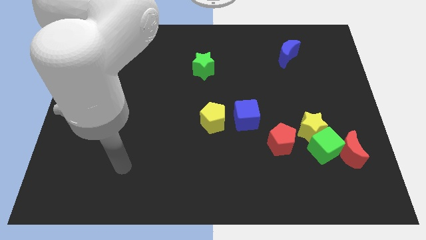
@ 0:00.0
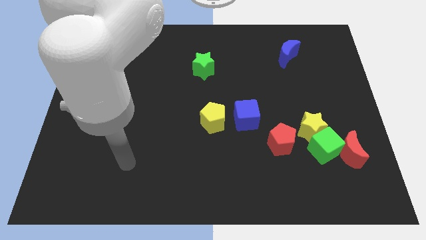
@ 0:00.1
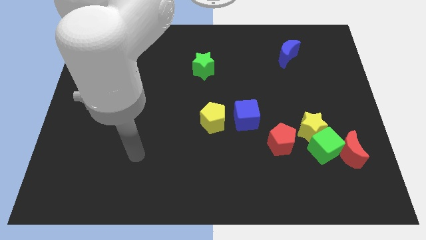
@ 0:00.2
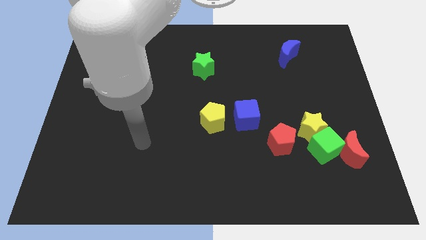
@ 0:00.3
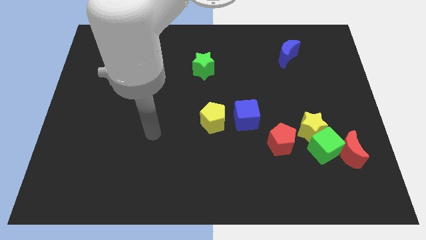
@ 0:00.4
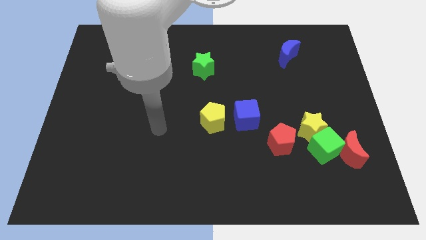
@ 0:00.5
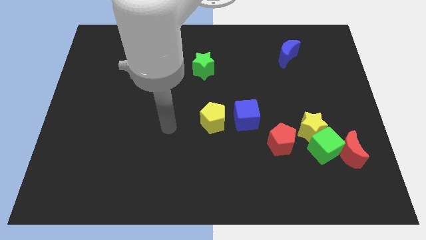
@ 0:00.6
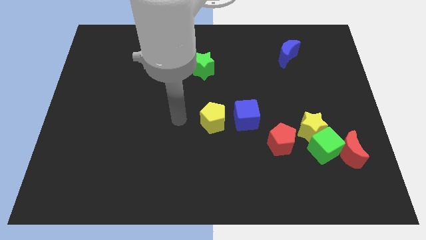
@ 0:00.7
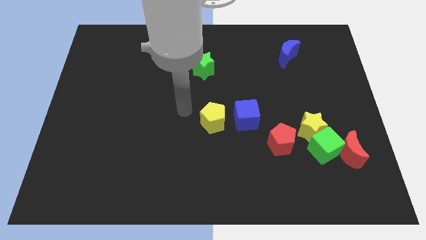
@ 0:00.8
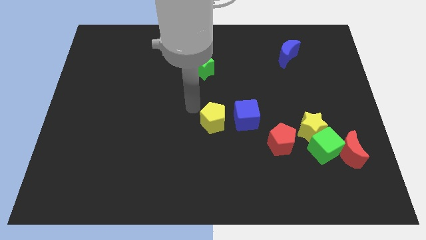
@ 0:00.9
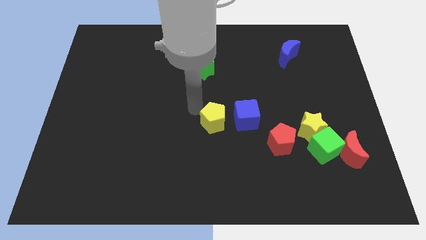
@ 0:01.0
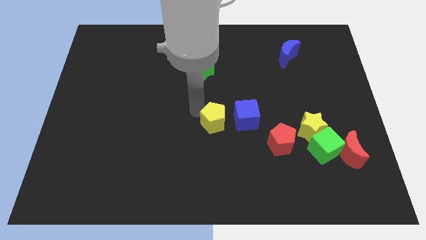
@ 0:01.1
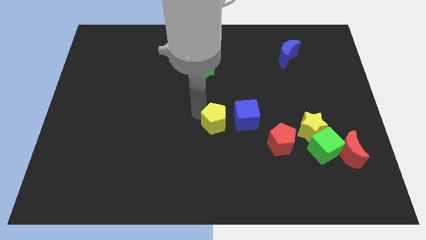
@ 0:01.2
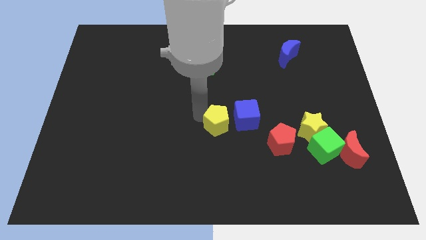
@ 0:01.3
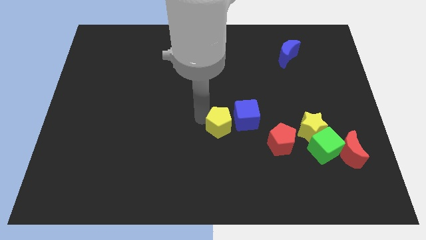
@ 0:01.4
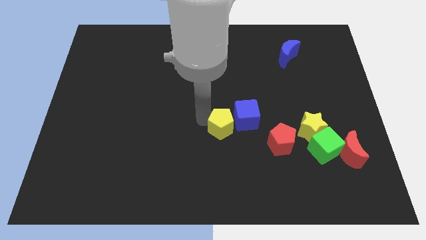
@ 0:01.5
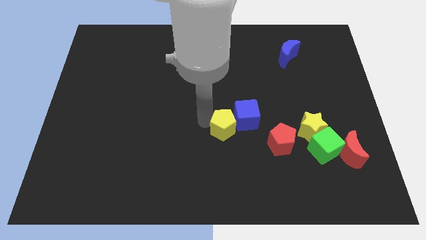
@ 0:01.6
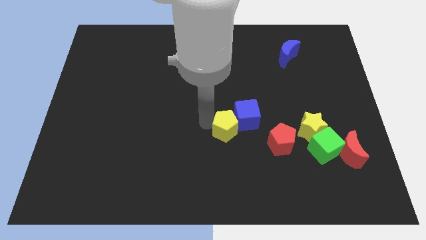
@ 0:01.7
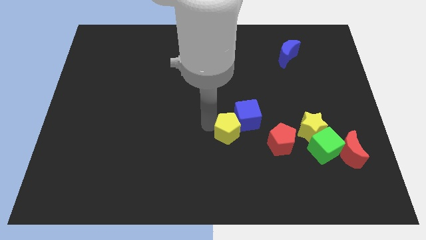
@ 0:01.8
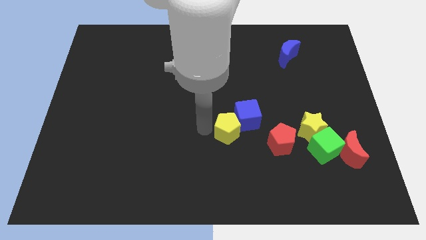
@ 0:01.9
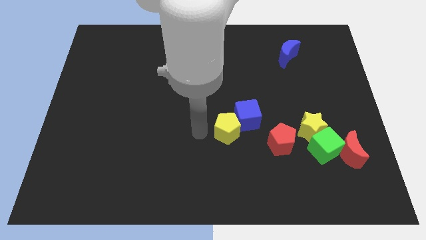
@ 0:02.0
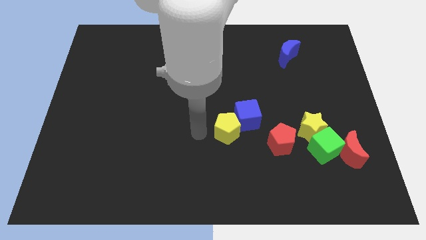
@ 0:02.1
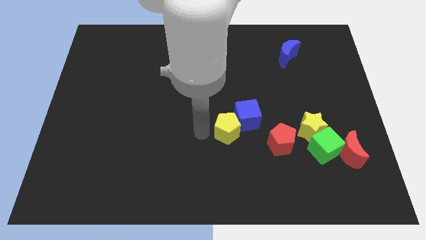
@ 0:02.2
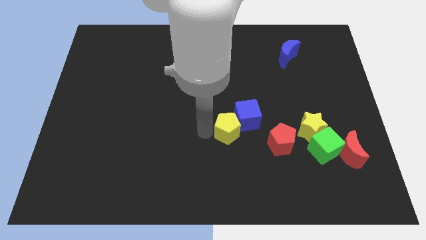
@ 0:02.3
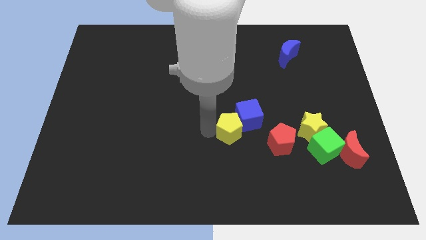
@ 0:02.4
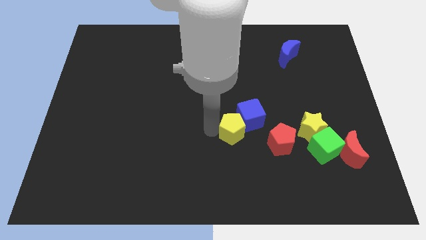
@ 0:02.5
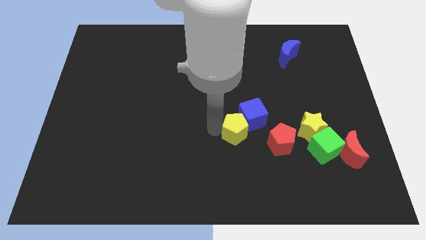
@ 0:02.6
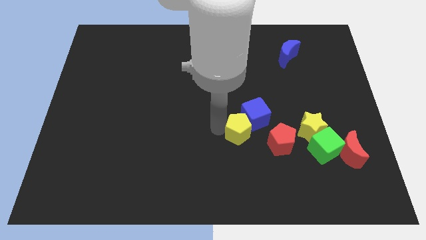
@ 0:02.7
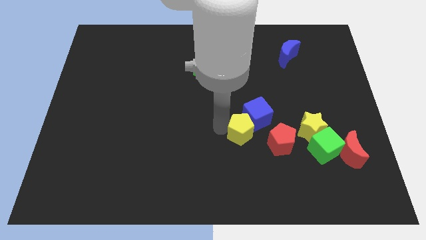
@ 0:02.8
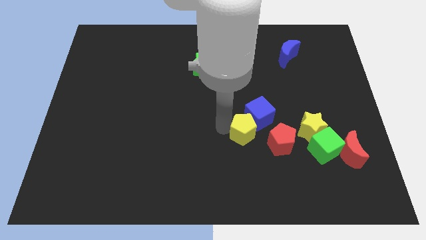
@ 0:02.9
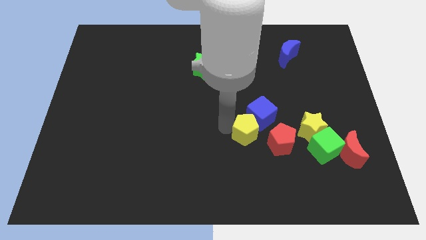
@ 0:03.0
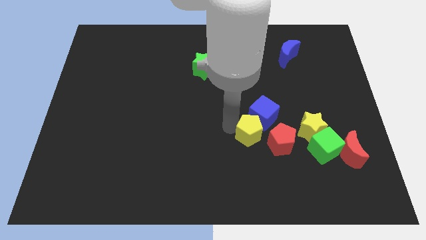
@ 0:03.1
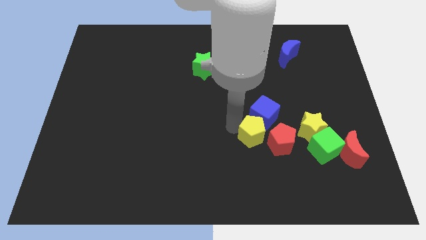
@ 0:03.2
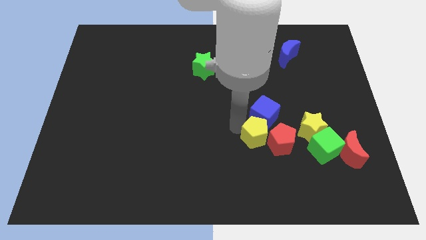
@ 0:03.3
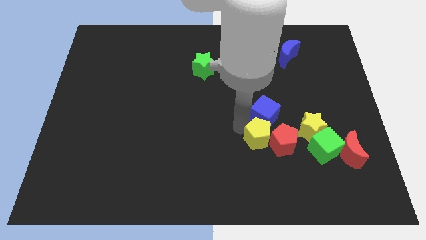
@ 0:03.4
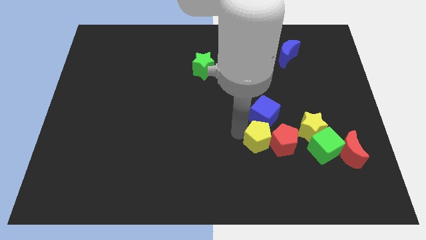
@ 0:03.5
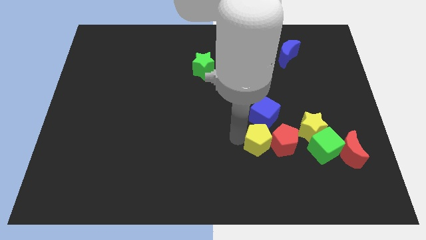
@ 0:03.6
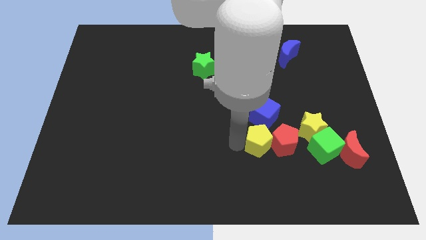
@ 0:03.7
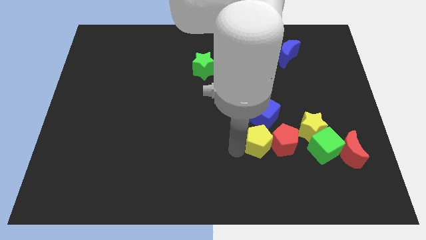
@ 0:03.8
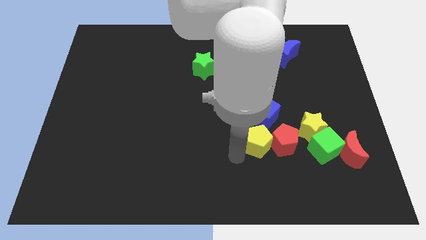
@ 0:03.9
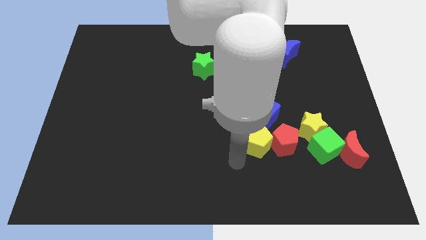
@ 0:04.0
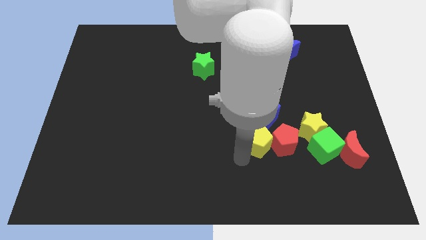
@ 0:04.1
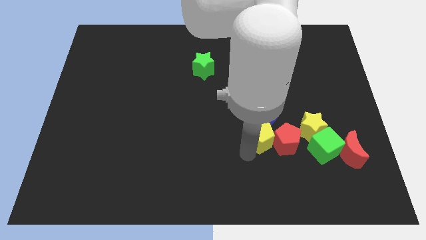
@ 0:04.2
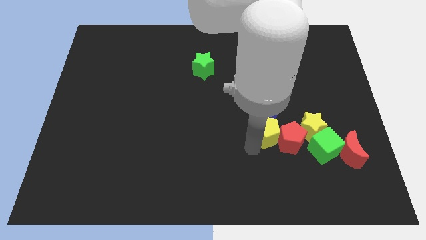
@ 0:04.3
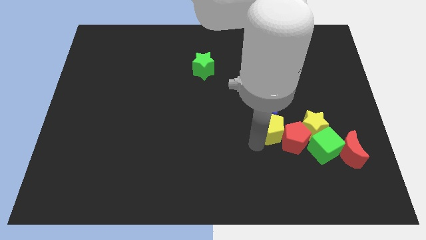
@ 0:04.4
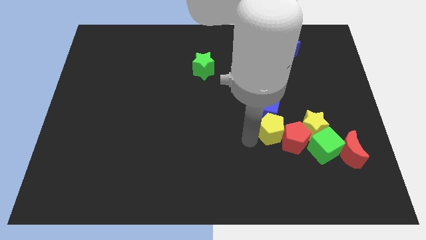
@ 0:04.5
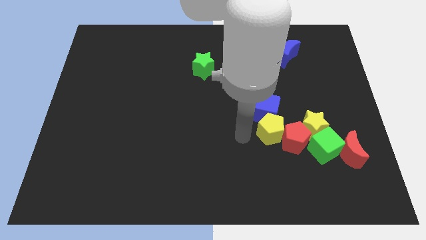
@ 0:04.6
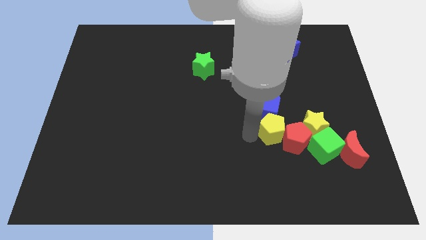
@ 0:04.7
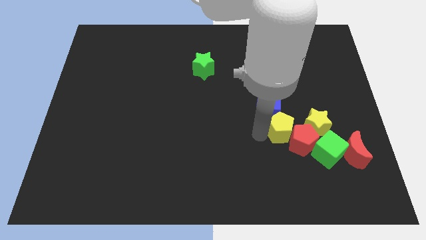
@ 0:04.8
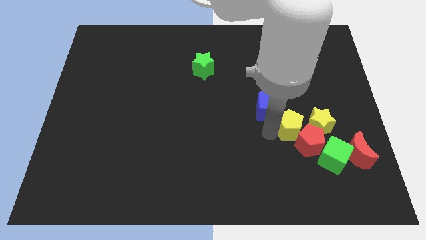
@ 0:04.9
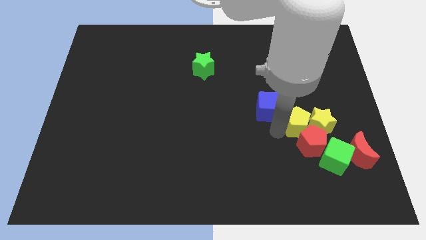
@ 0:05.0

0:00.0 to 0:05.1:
slide the yellow pentagon next to the yellow star

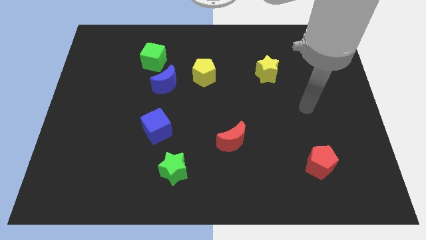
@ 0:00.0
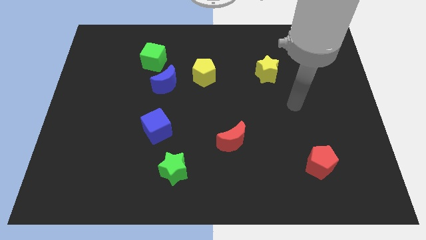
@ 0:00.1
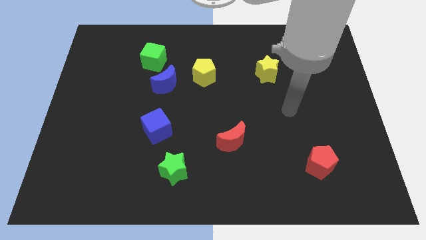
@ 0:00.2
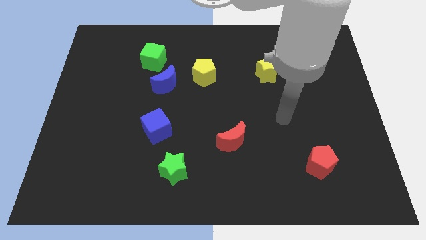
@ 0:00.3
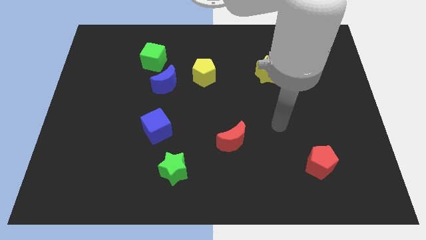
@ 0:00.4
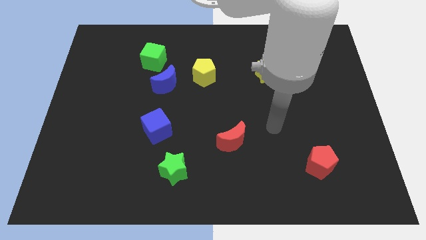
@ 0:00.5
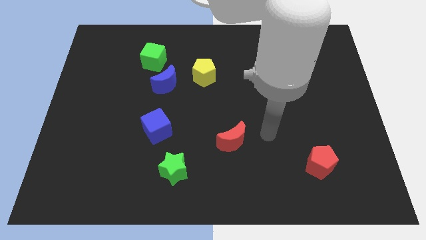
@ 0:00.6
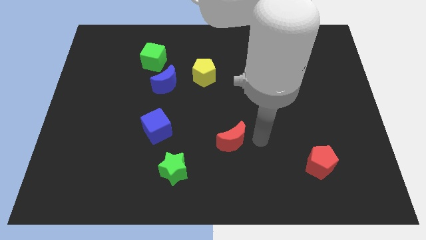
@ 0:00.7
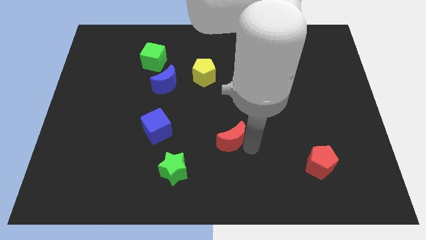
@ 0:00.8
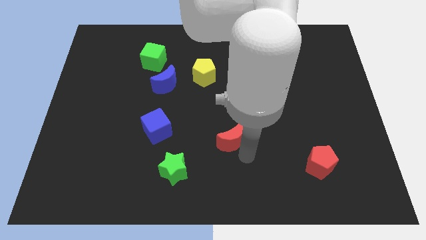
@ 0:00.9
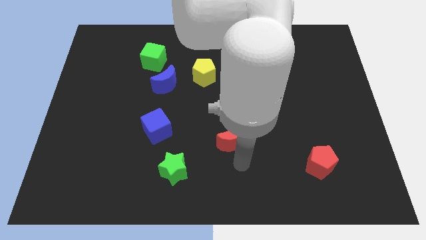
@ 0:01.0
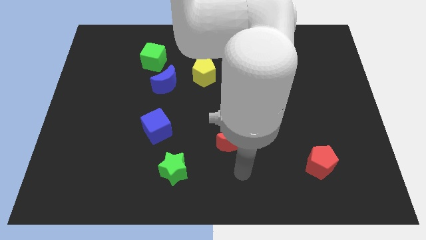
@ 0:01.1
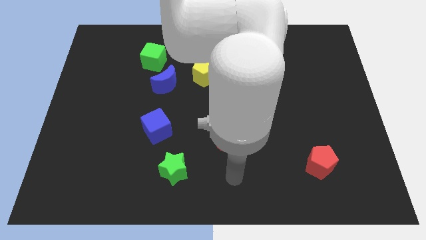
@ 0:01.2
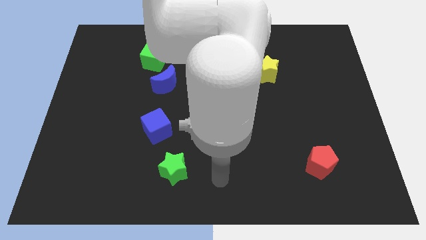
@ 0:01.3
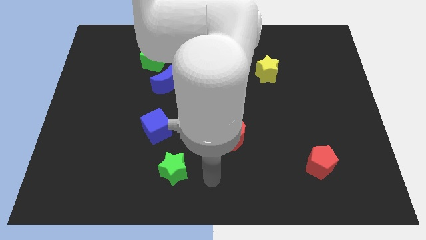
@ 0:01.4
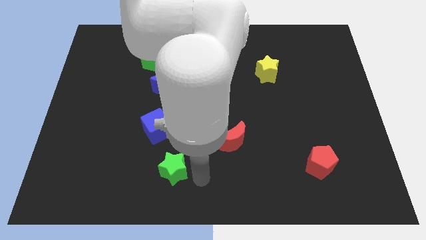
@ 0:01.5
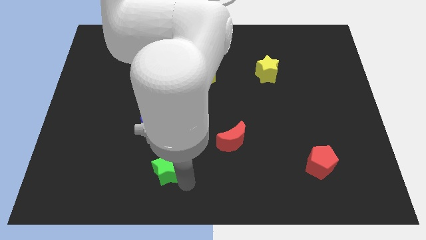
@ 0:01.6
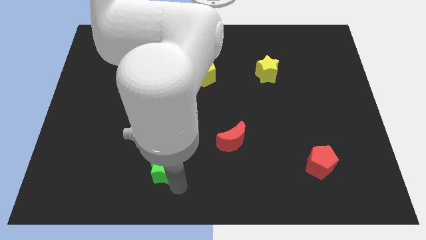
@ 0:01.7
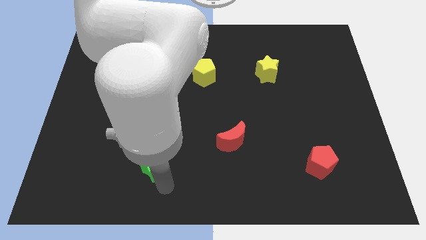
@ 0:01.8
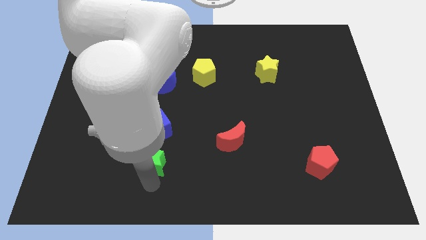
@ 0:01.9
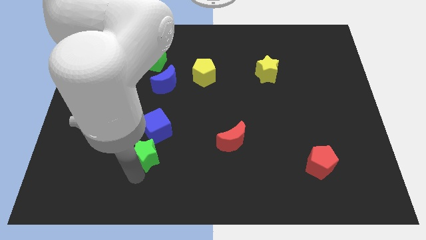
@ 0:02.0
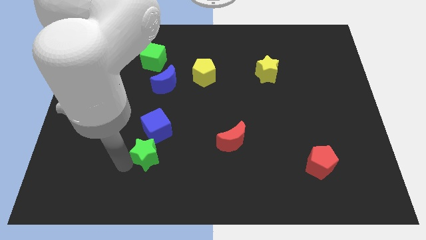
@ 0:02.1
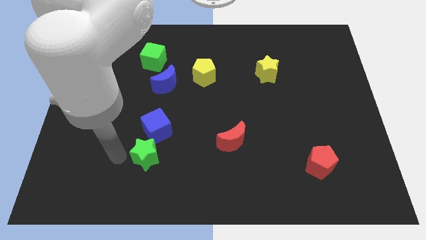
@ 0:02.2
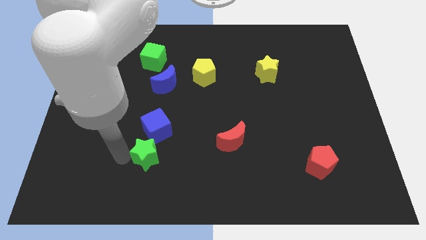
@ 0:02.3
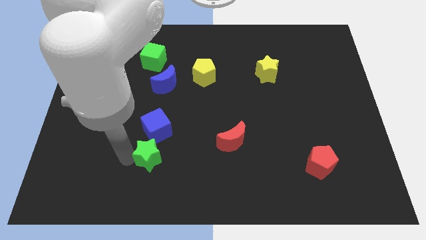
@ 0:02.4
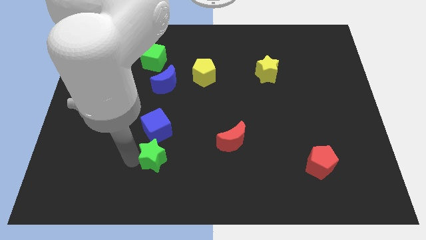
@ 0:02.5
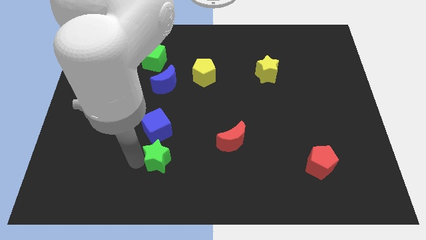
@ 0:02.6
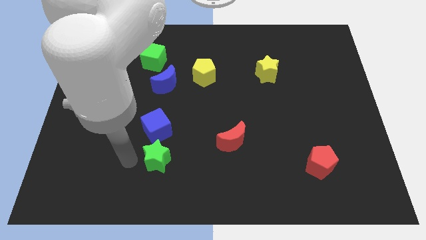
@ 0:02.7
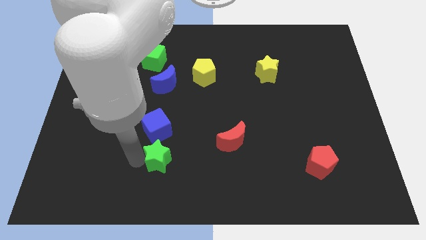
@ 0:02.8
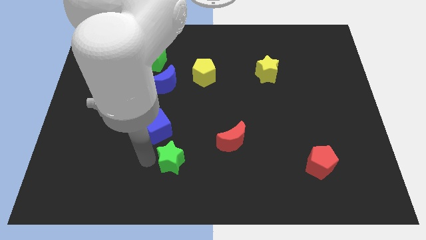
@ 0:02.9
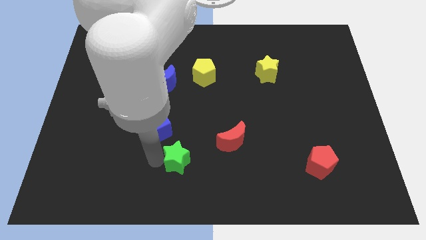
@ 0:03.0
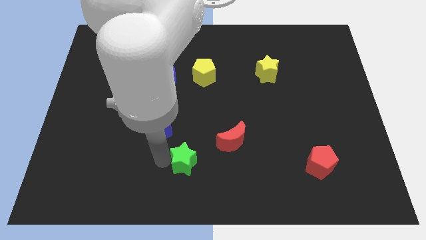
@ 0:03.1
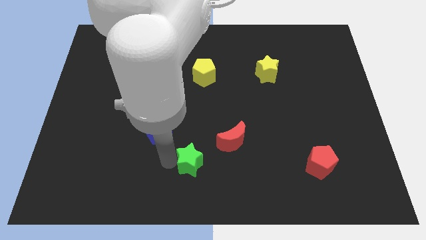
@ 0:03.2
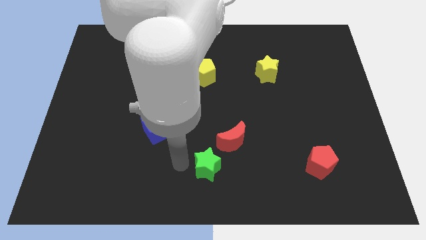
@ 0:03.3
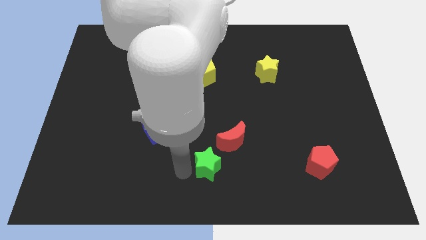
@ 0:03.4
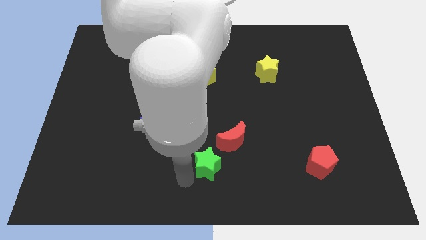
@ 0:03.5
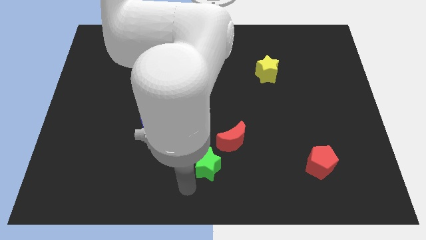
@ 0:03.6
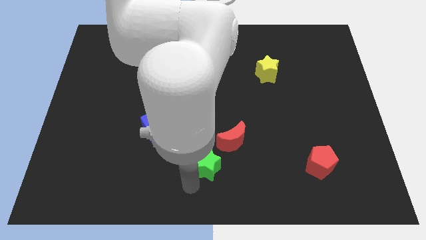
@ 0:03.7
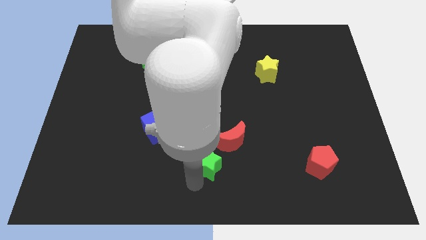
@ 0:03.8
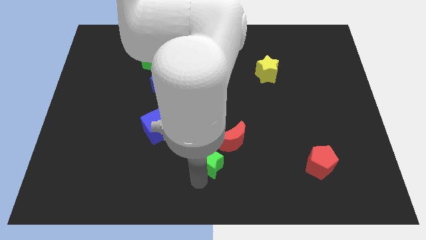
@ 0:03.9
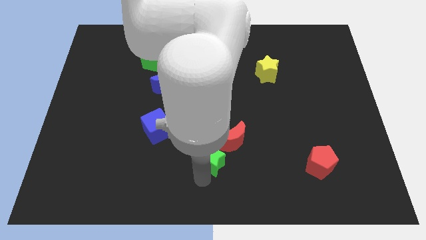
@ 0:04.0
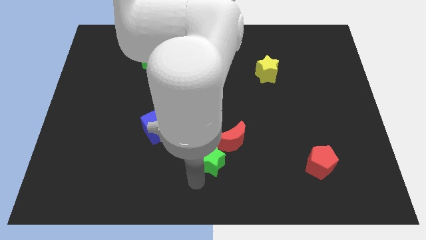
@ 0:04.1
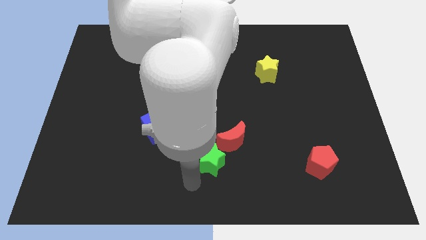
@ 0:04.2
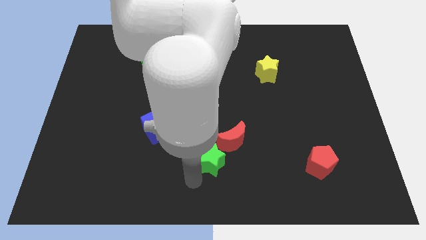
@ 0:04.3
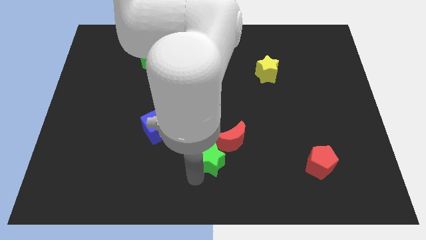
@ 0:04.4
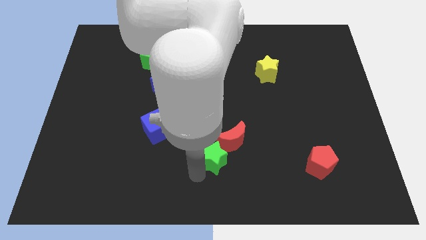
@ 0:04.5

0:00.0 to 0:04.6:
put the green star next to the red moon
